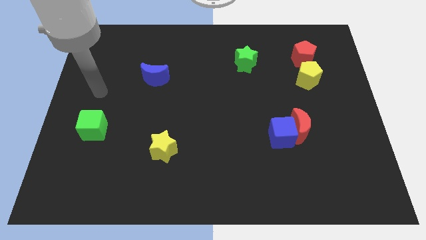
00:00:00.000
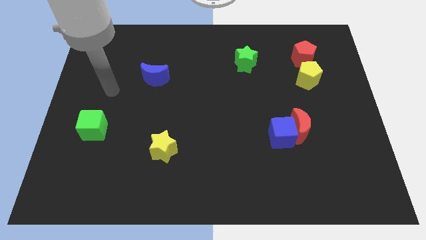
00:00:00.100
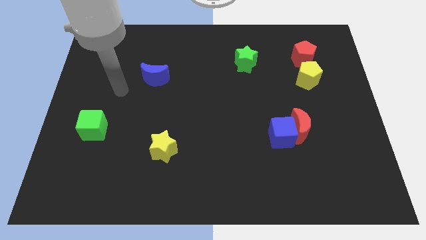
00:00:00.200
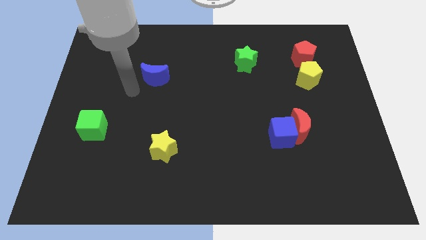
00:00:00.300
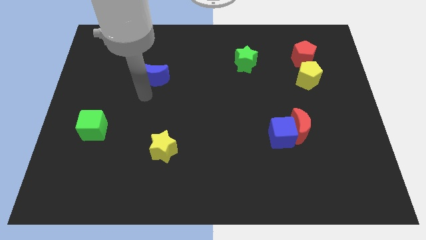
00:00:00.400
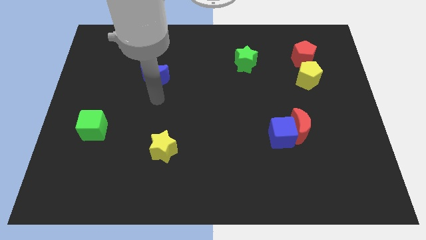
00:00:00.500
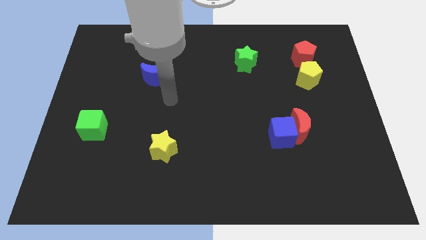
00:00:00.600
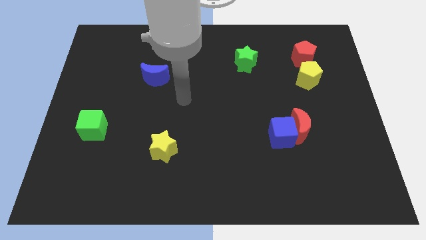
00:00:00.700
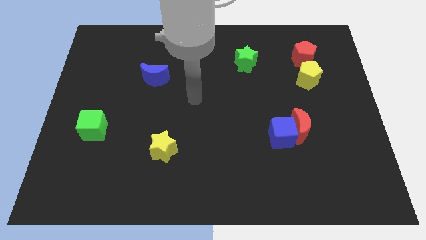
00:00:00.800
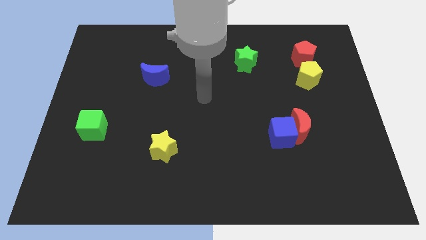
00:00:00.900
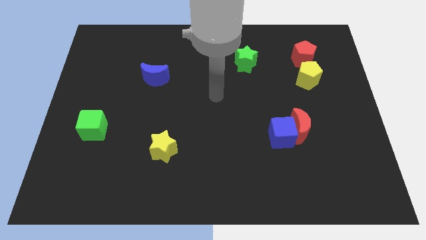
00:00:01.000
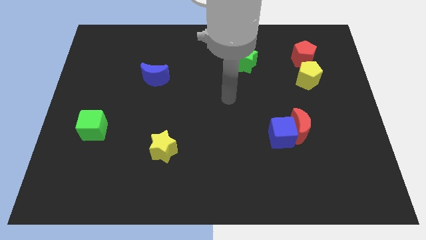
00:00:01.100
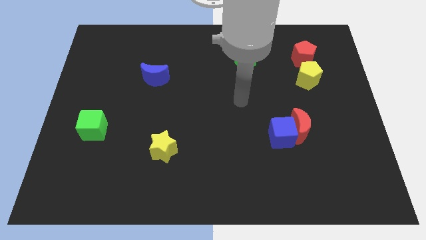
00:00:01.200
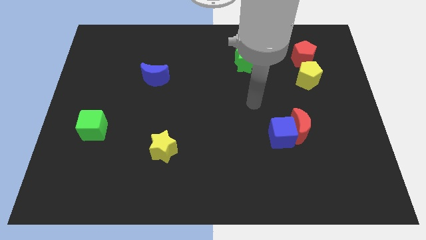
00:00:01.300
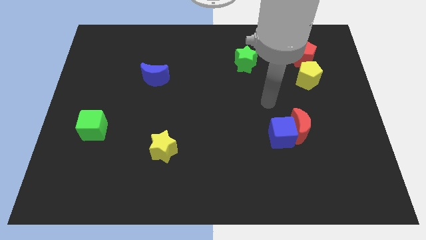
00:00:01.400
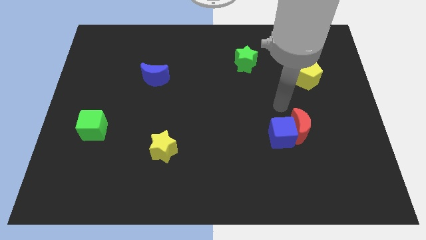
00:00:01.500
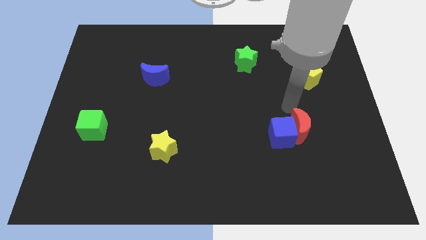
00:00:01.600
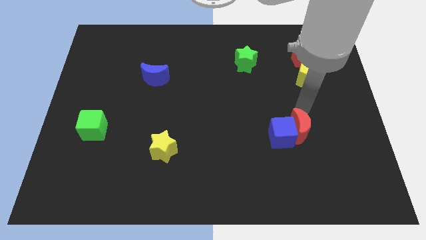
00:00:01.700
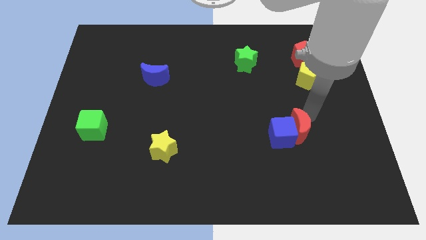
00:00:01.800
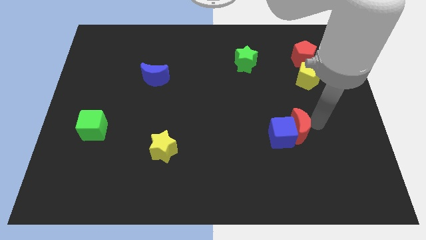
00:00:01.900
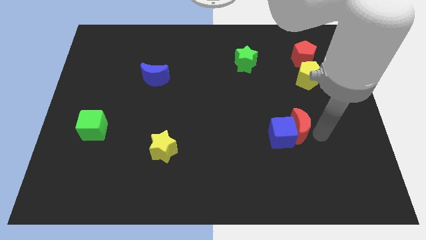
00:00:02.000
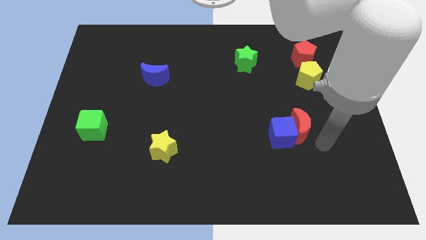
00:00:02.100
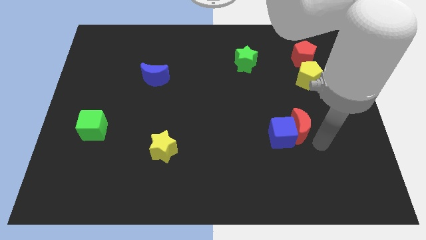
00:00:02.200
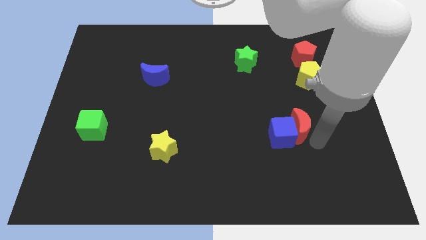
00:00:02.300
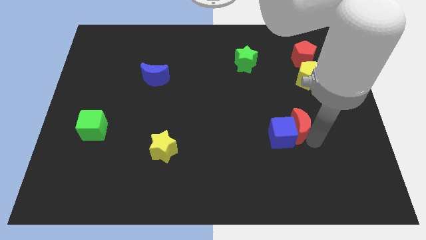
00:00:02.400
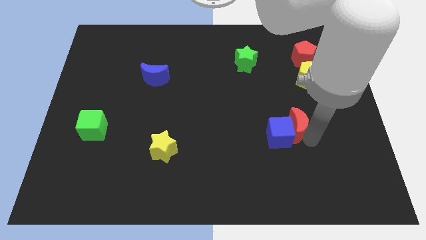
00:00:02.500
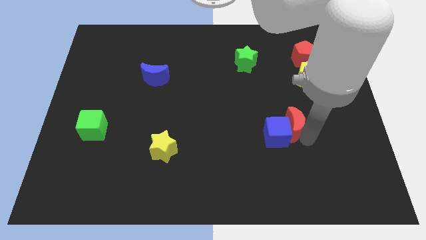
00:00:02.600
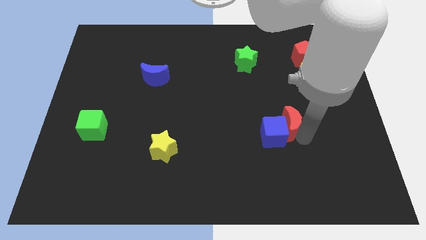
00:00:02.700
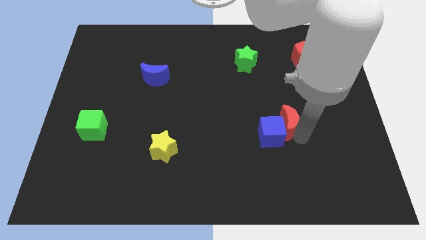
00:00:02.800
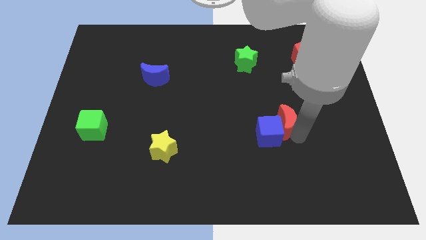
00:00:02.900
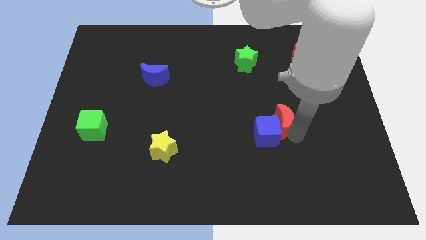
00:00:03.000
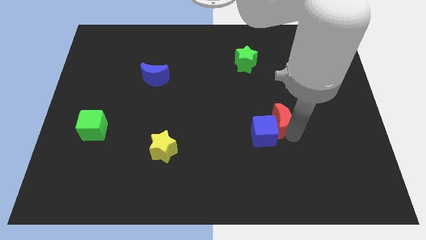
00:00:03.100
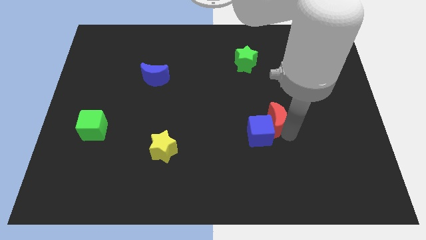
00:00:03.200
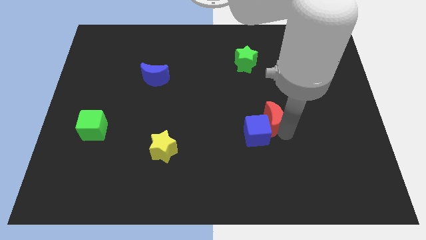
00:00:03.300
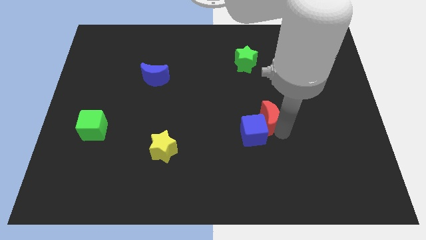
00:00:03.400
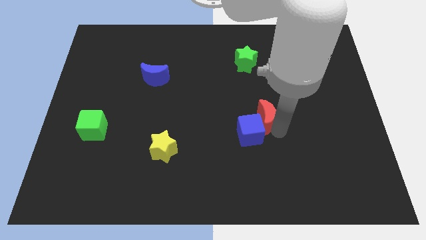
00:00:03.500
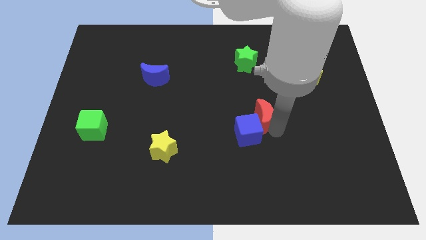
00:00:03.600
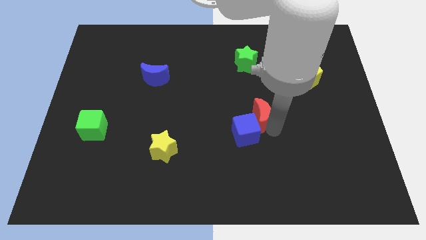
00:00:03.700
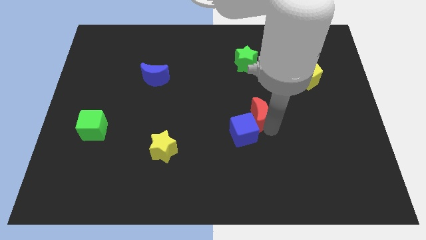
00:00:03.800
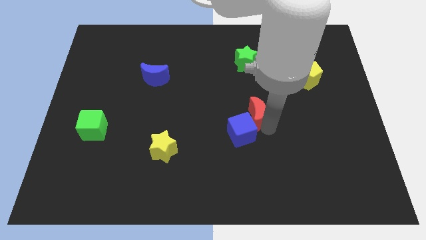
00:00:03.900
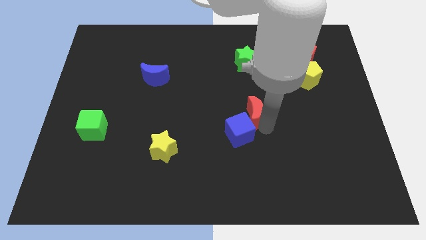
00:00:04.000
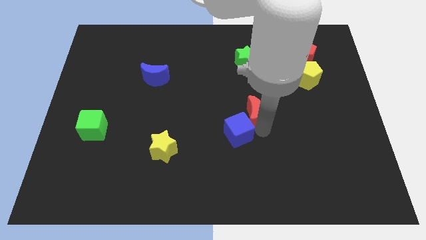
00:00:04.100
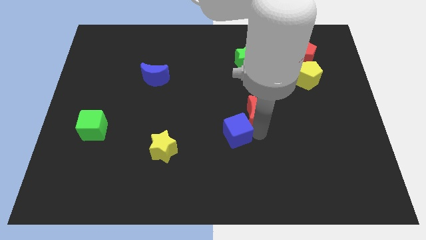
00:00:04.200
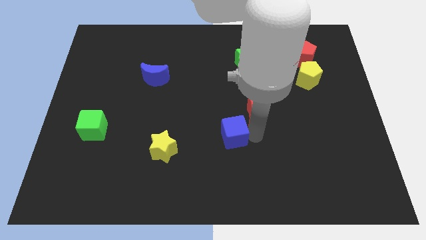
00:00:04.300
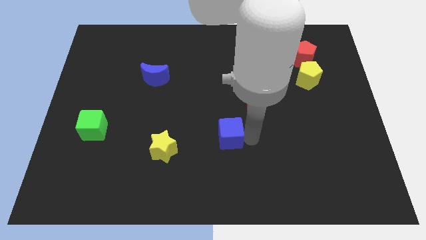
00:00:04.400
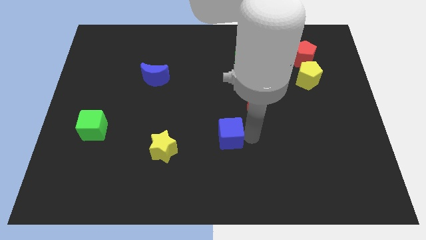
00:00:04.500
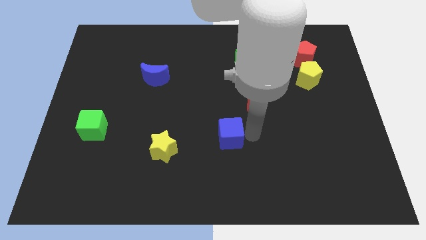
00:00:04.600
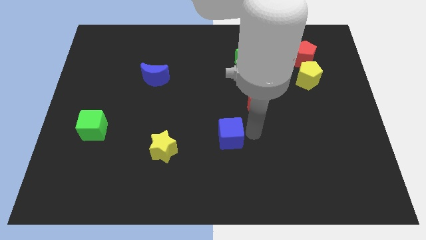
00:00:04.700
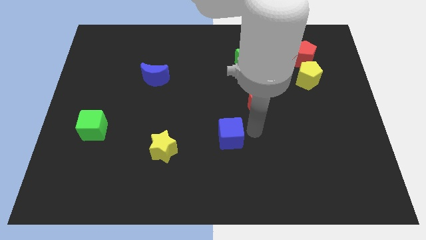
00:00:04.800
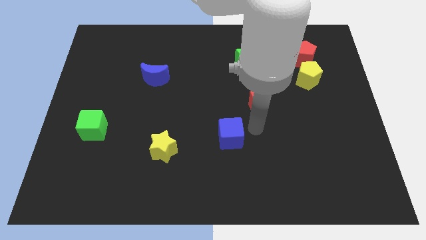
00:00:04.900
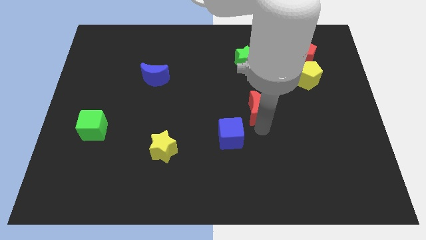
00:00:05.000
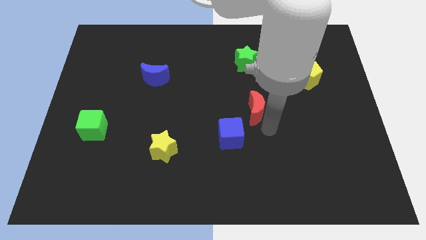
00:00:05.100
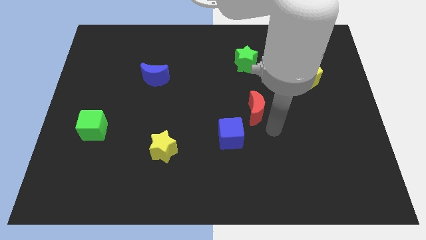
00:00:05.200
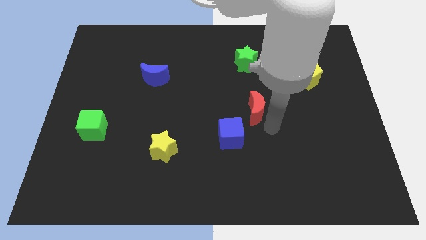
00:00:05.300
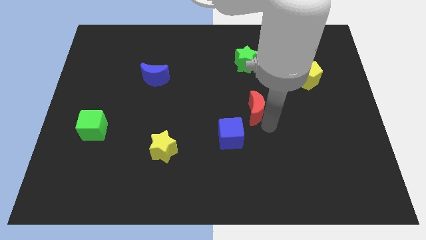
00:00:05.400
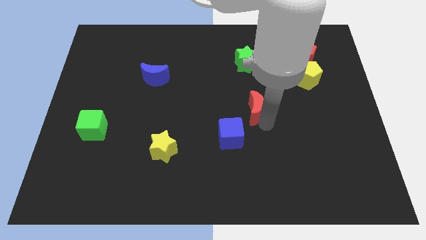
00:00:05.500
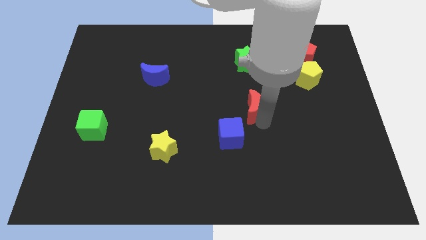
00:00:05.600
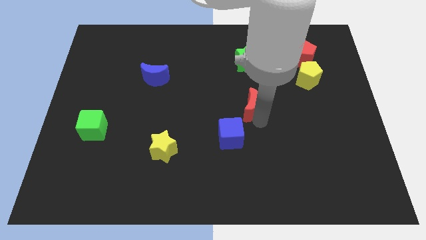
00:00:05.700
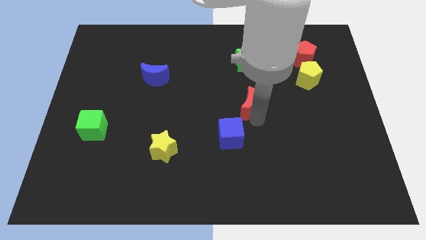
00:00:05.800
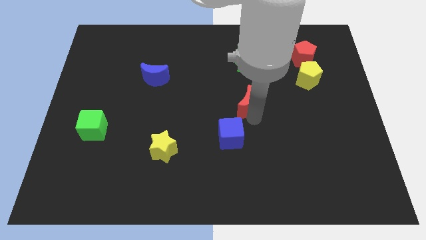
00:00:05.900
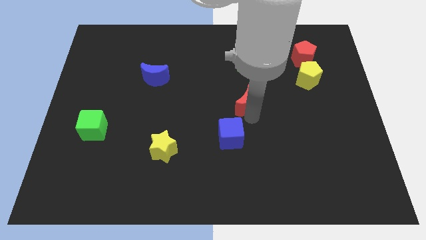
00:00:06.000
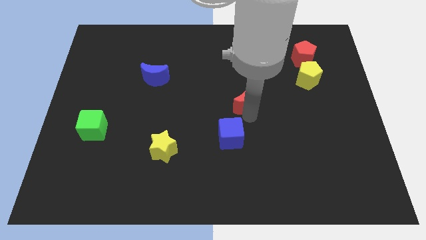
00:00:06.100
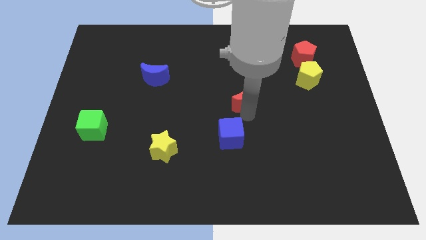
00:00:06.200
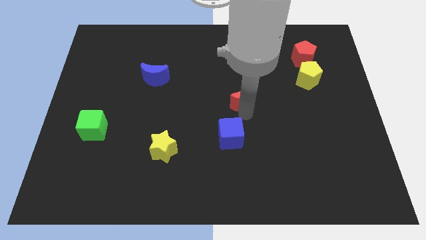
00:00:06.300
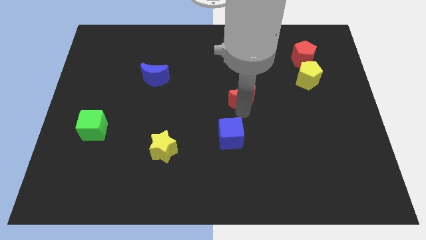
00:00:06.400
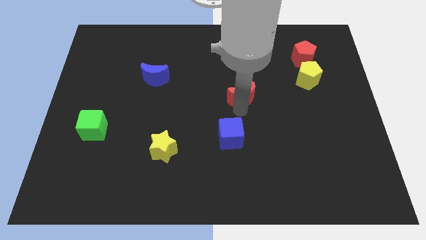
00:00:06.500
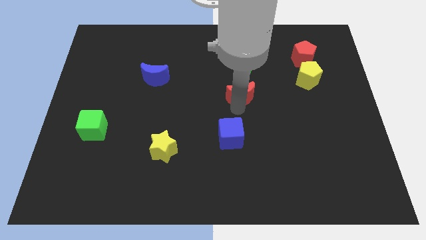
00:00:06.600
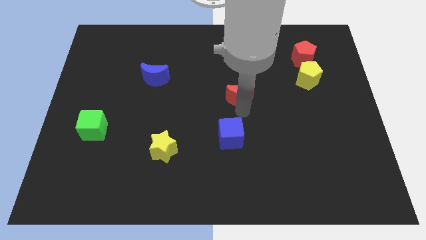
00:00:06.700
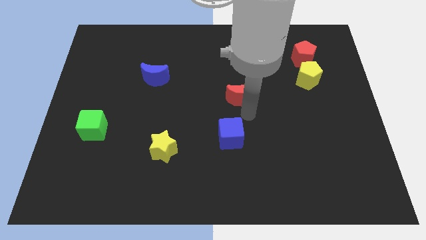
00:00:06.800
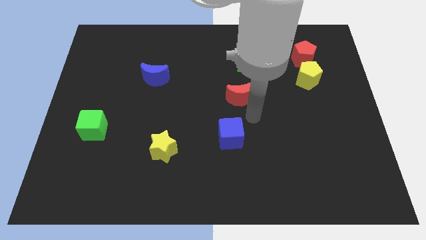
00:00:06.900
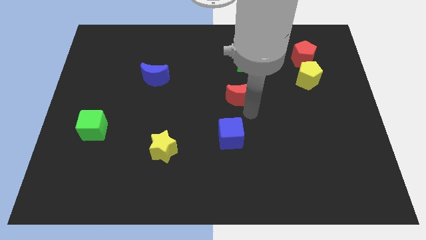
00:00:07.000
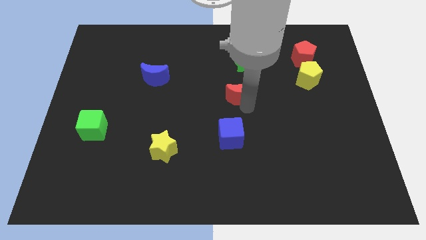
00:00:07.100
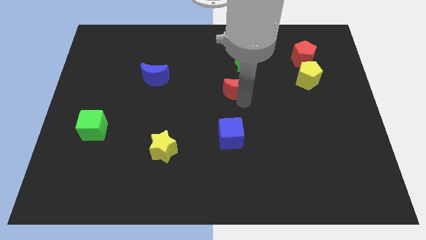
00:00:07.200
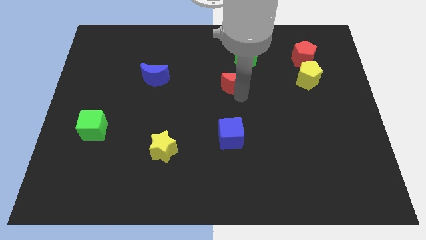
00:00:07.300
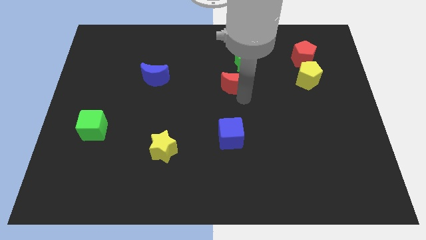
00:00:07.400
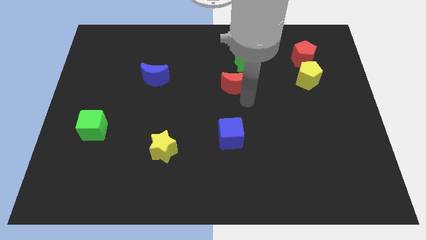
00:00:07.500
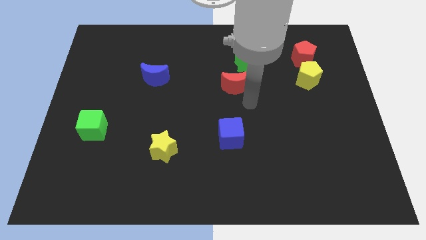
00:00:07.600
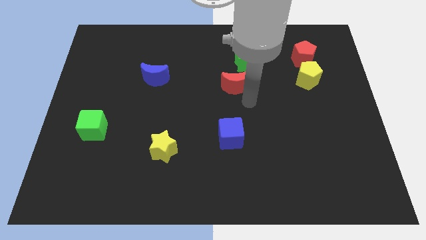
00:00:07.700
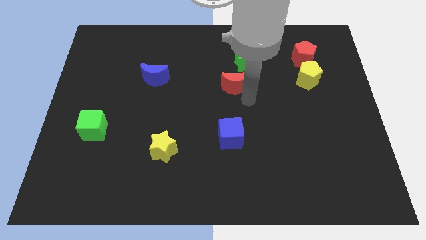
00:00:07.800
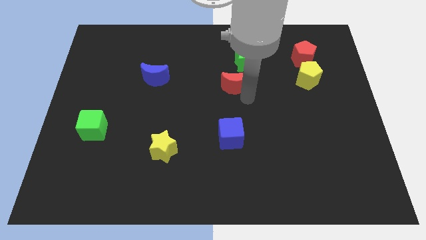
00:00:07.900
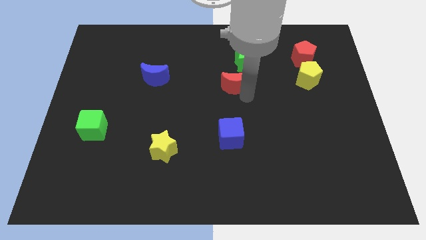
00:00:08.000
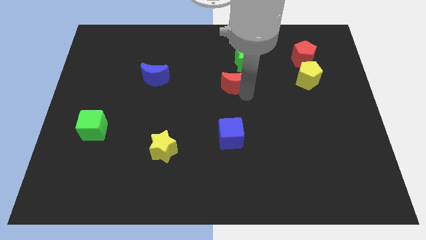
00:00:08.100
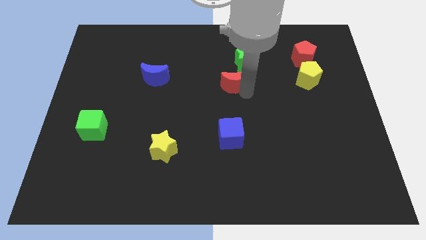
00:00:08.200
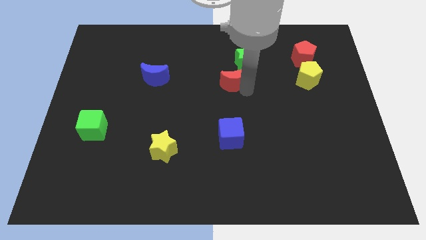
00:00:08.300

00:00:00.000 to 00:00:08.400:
move the red moon up and then left
